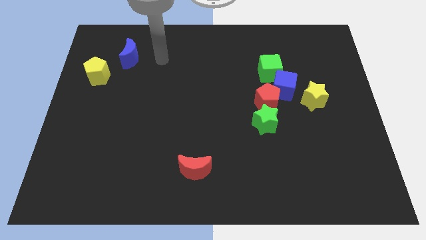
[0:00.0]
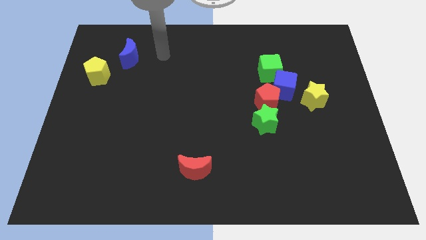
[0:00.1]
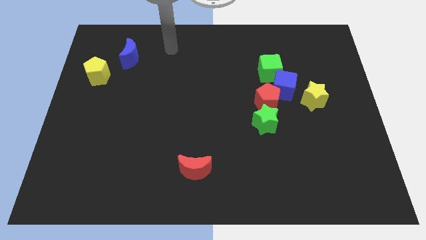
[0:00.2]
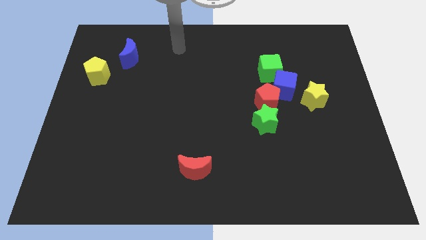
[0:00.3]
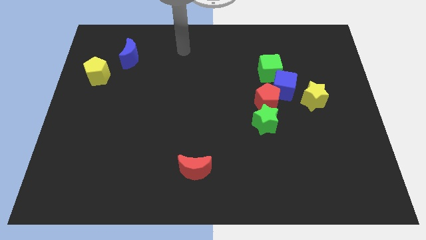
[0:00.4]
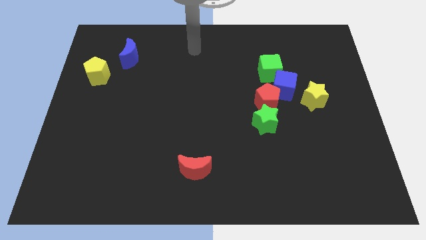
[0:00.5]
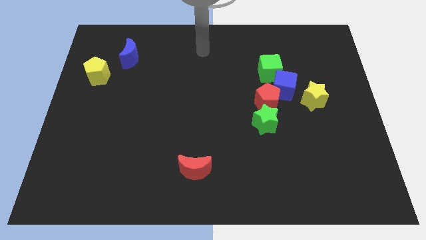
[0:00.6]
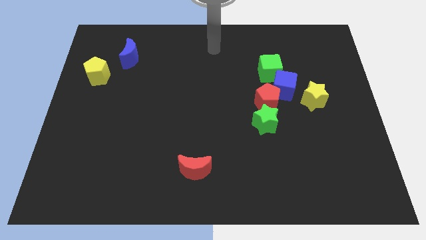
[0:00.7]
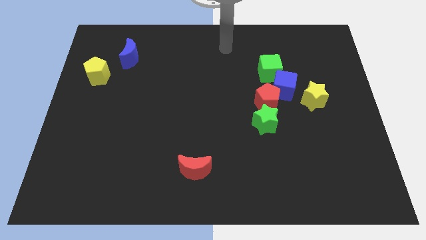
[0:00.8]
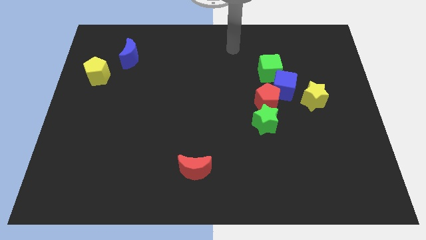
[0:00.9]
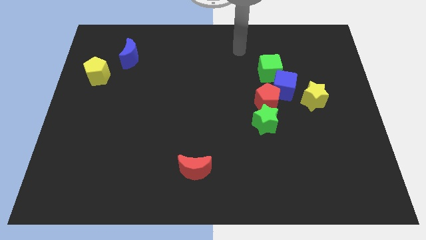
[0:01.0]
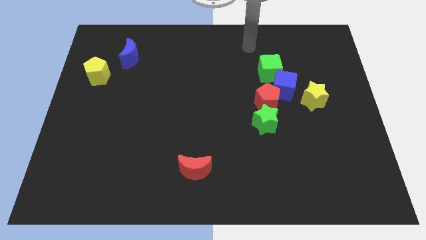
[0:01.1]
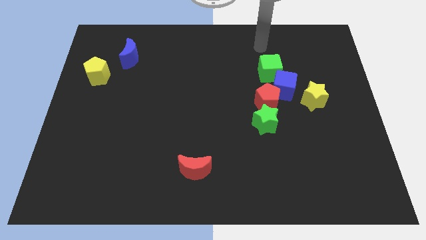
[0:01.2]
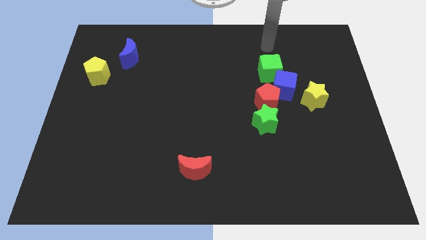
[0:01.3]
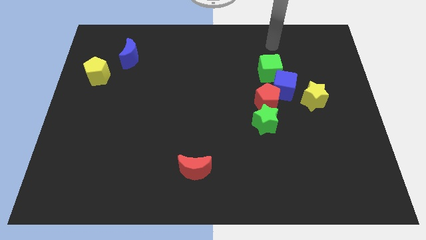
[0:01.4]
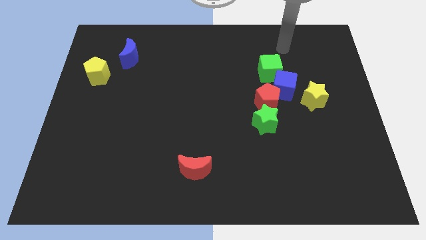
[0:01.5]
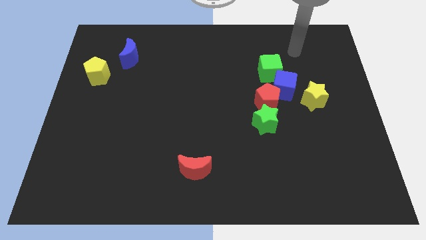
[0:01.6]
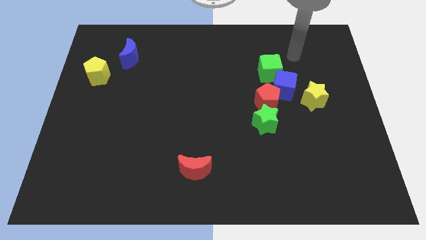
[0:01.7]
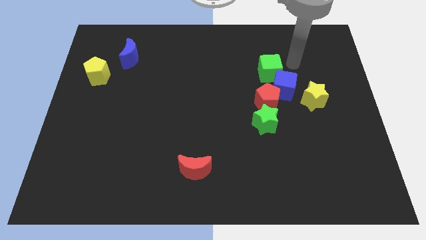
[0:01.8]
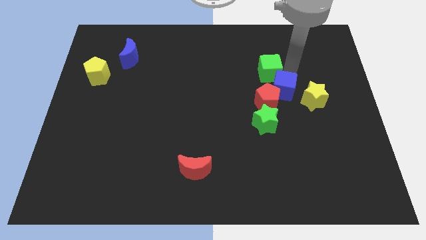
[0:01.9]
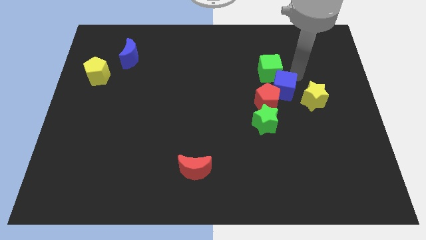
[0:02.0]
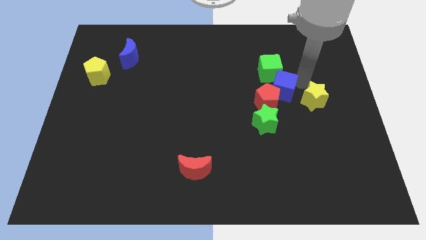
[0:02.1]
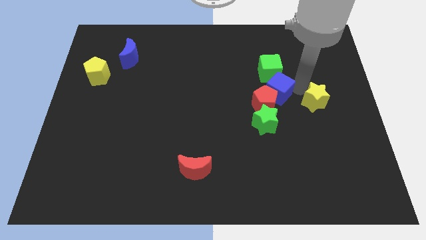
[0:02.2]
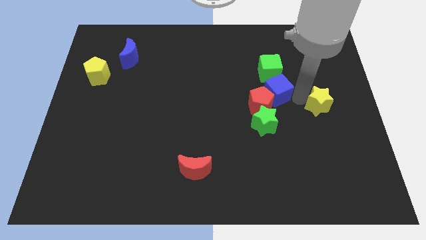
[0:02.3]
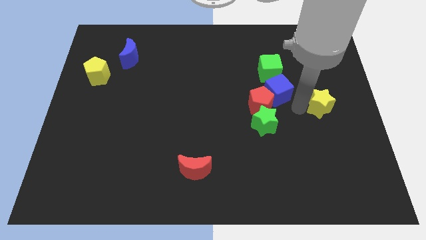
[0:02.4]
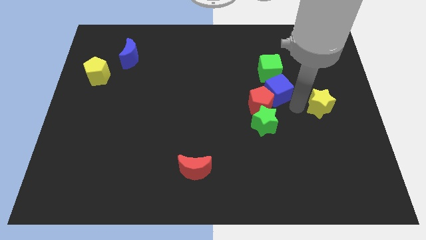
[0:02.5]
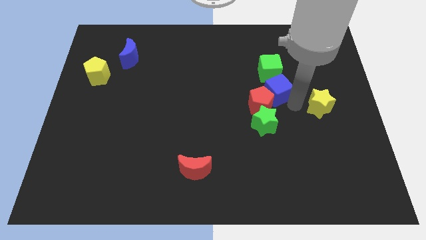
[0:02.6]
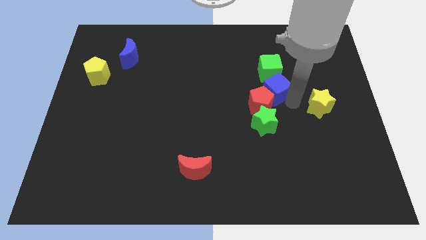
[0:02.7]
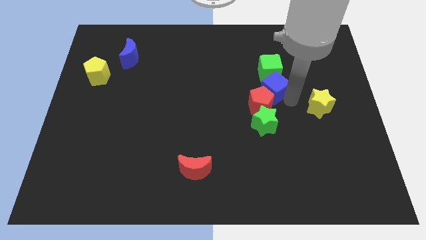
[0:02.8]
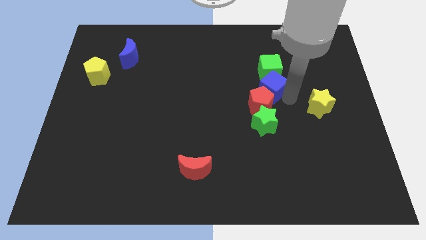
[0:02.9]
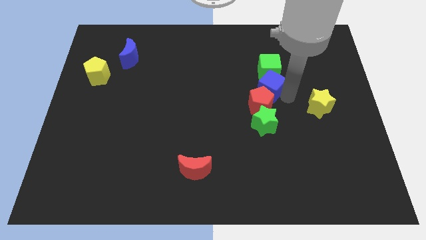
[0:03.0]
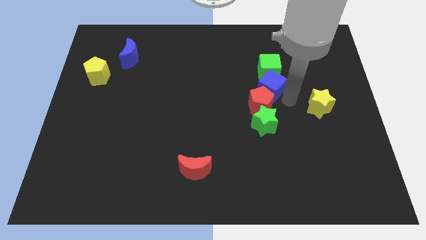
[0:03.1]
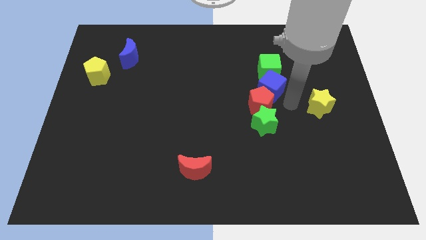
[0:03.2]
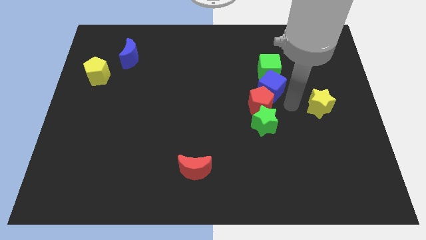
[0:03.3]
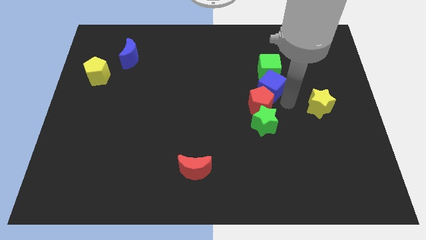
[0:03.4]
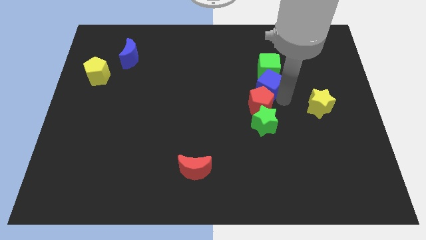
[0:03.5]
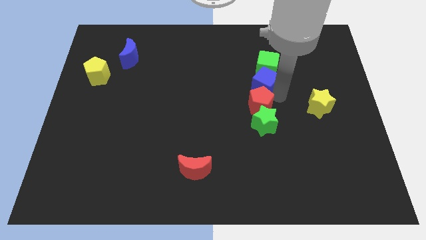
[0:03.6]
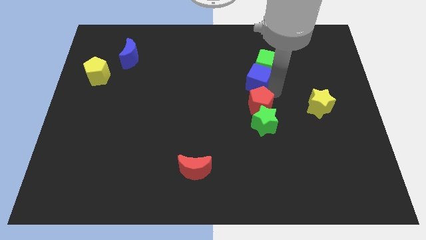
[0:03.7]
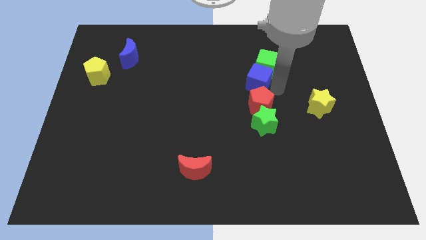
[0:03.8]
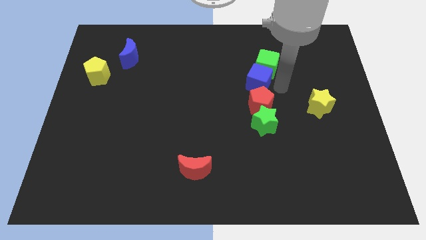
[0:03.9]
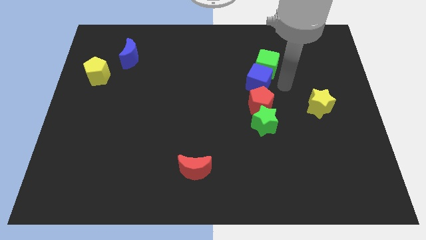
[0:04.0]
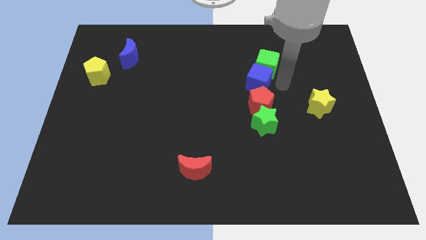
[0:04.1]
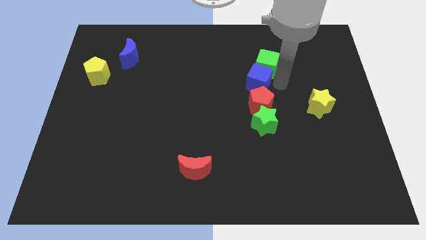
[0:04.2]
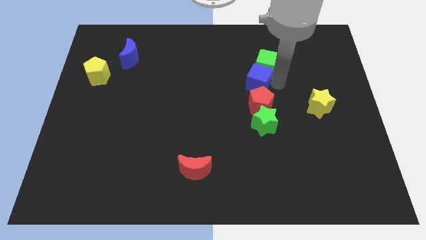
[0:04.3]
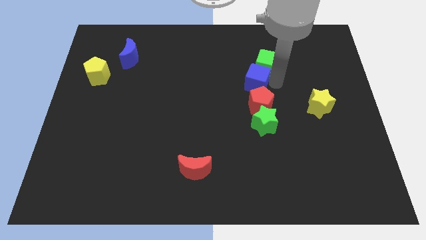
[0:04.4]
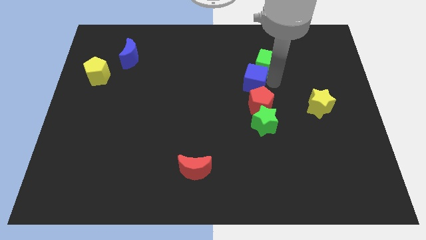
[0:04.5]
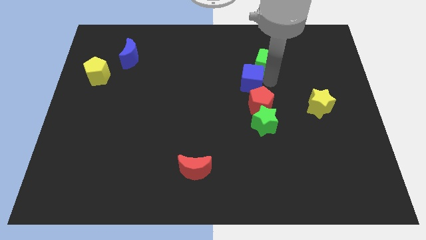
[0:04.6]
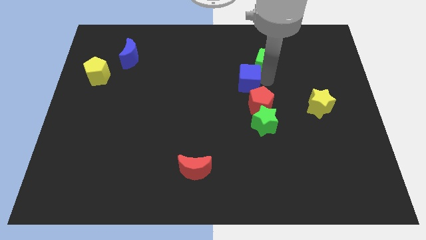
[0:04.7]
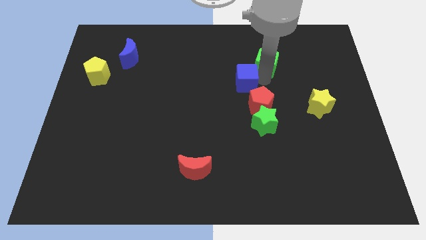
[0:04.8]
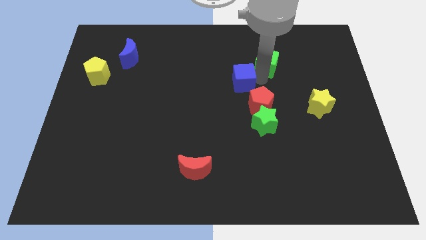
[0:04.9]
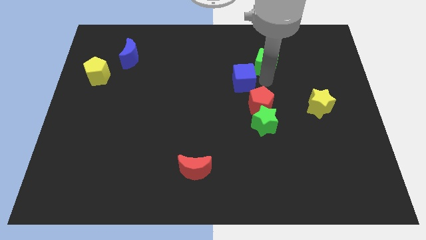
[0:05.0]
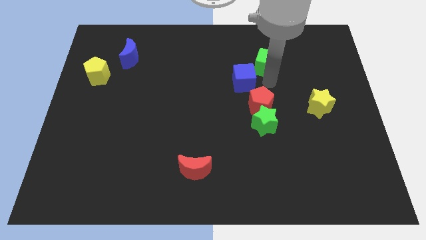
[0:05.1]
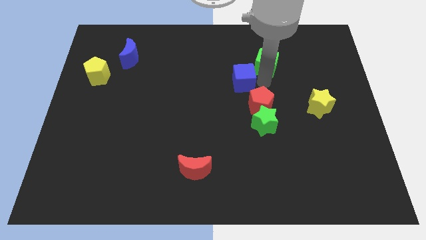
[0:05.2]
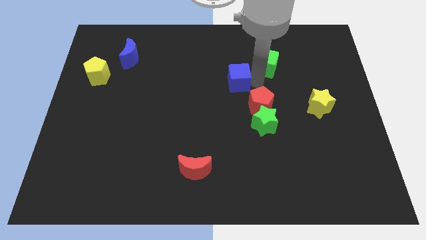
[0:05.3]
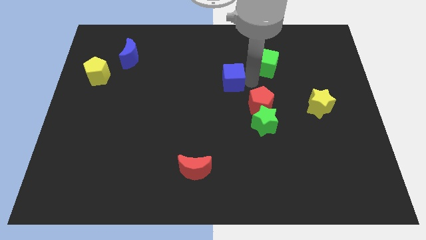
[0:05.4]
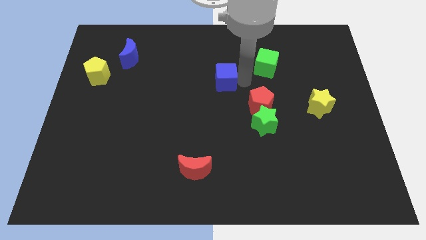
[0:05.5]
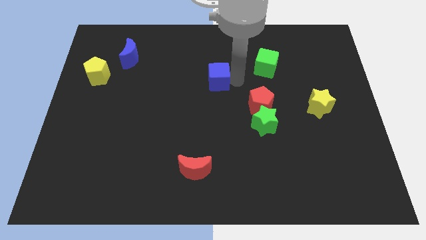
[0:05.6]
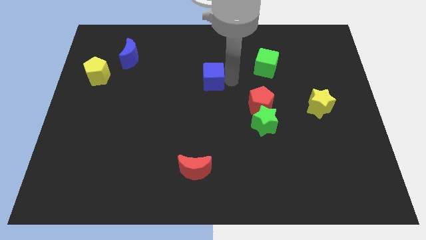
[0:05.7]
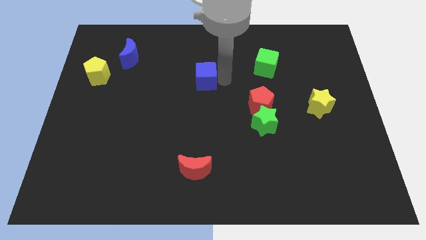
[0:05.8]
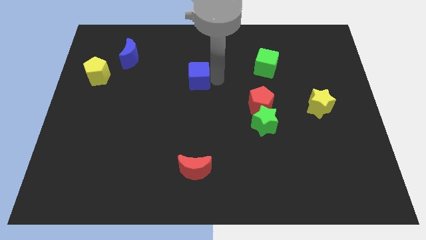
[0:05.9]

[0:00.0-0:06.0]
slide the blue cube left

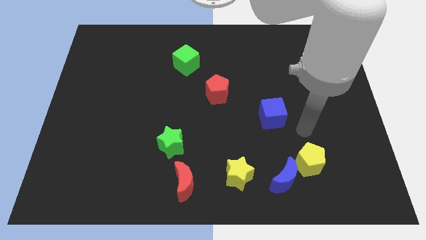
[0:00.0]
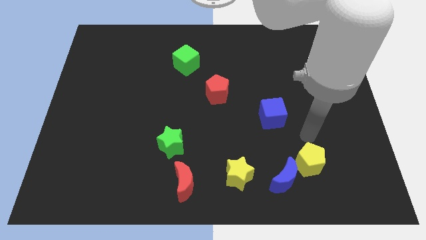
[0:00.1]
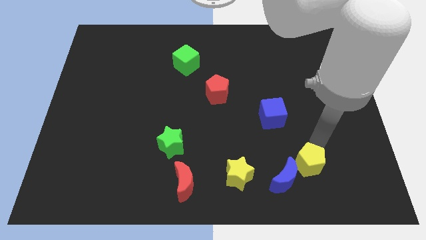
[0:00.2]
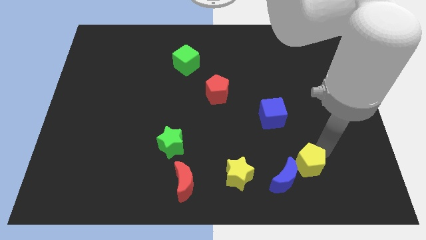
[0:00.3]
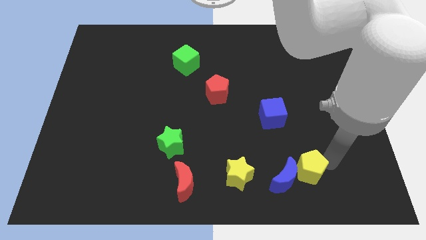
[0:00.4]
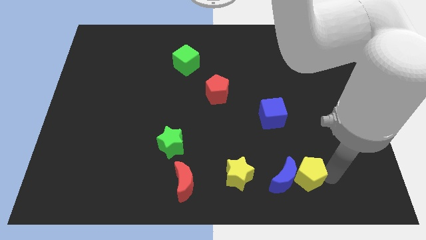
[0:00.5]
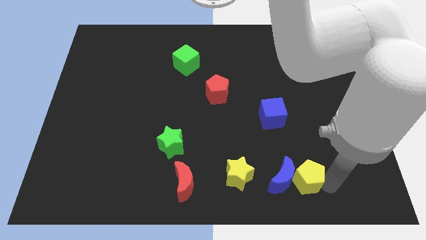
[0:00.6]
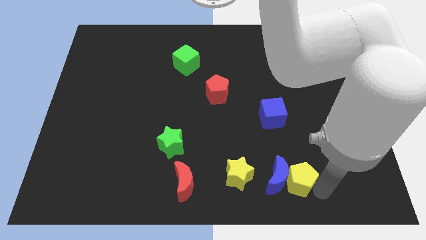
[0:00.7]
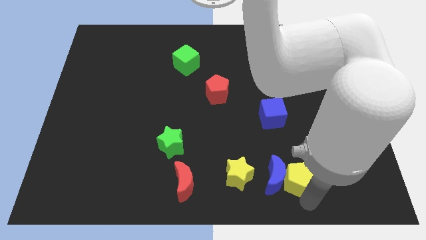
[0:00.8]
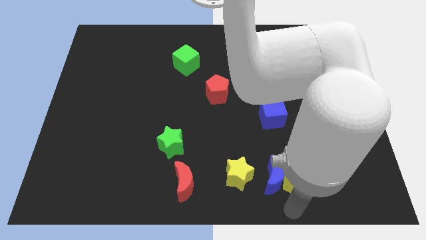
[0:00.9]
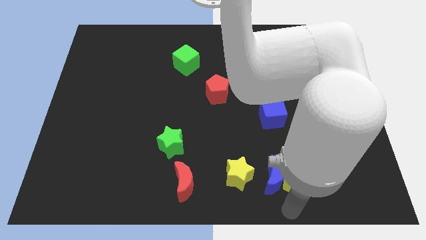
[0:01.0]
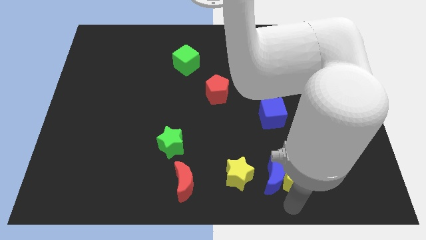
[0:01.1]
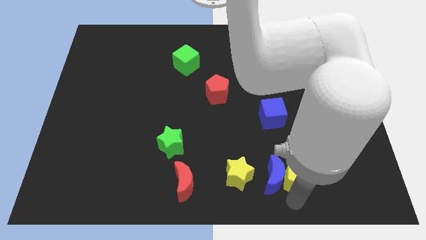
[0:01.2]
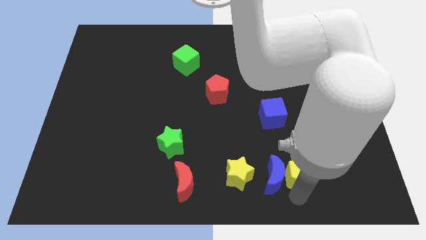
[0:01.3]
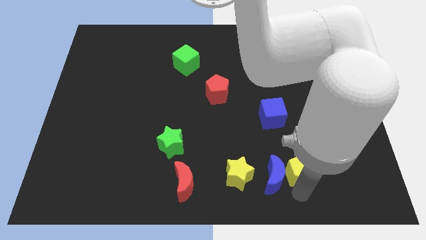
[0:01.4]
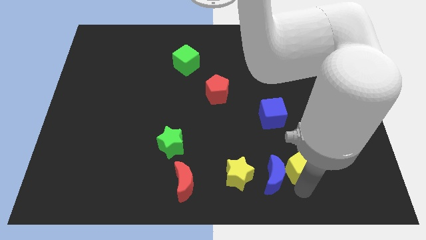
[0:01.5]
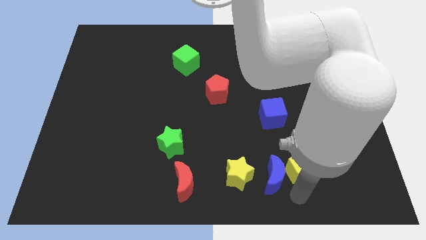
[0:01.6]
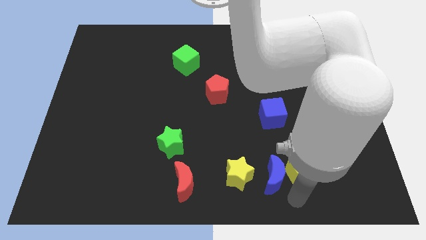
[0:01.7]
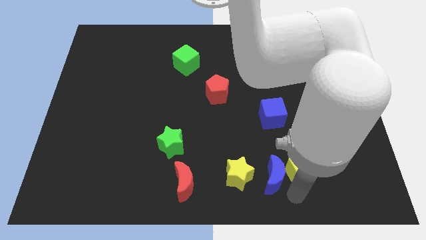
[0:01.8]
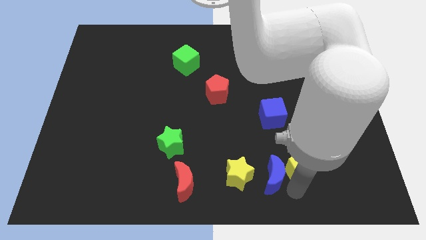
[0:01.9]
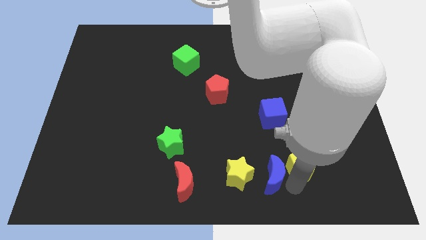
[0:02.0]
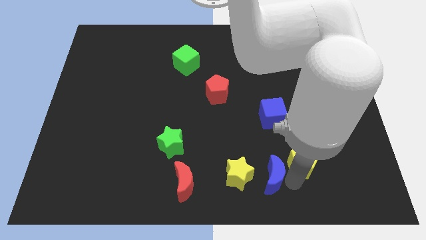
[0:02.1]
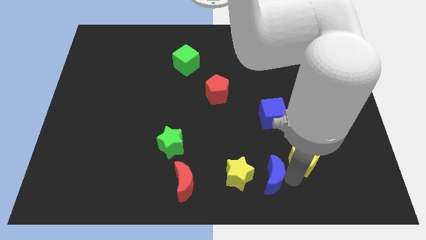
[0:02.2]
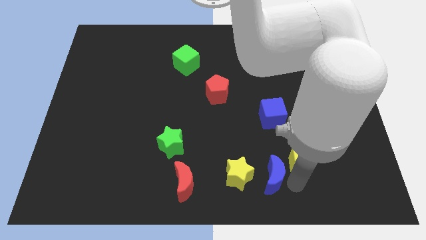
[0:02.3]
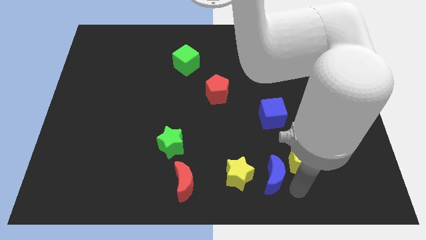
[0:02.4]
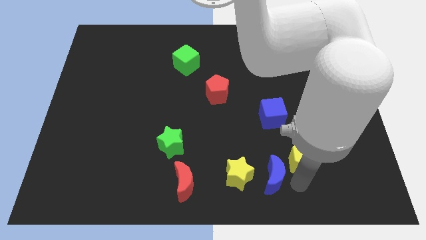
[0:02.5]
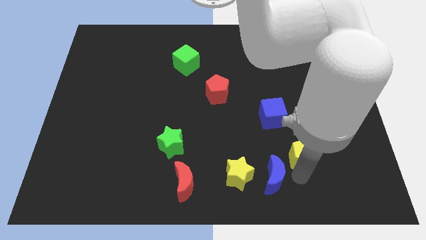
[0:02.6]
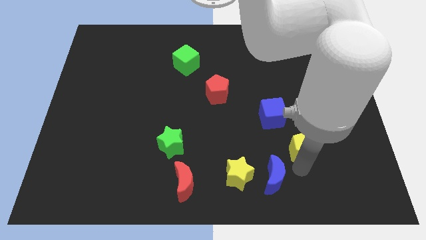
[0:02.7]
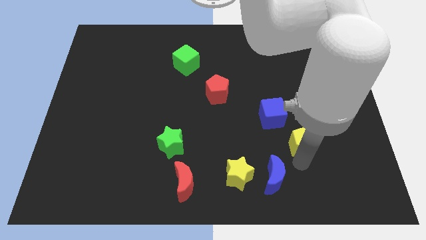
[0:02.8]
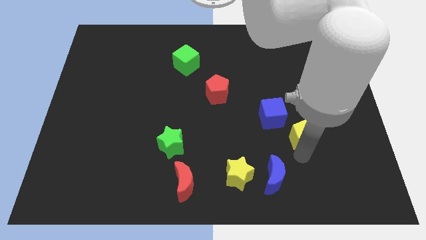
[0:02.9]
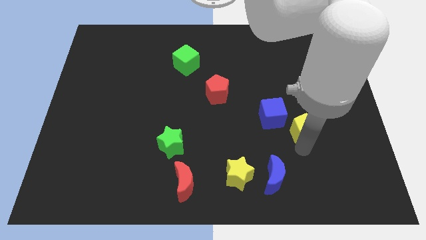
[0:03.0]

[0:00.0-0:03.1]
slide the yellow pentagon upwards somewhat
